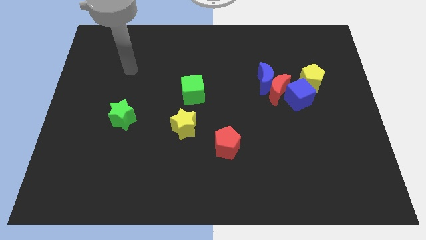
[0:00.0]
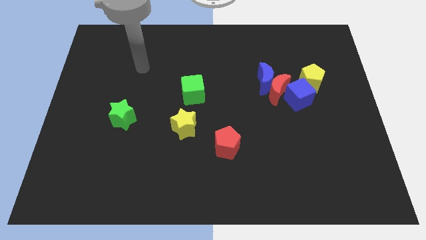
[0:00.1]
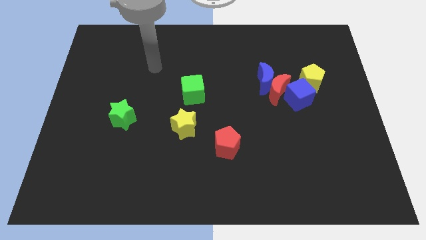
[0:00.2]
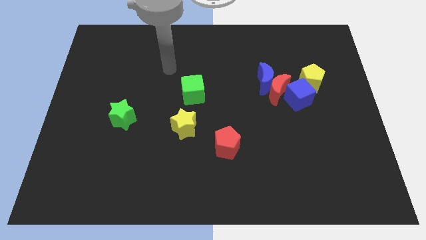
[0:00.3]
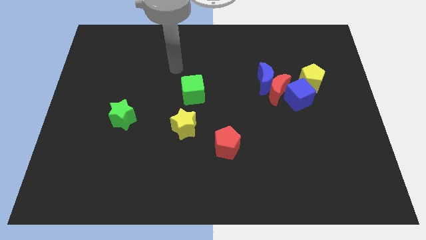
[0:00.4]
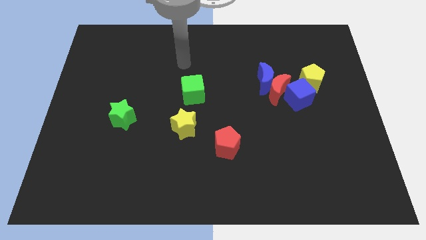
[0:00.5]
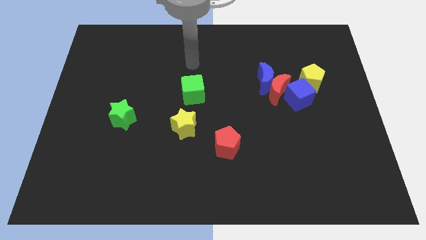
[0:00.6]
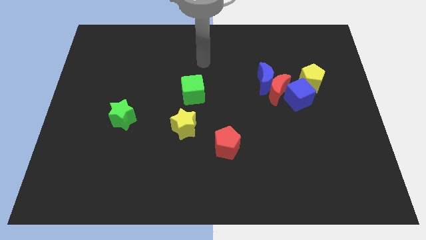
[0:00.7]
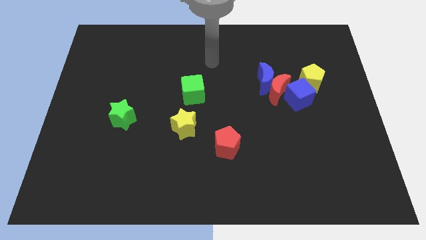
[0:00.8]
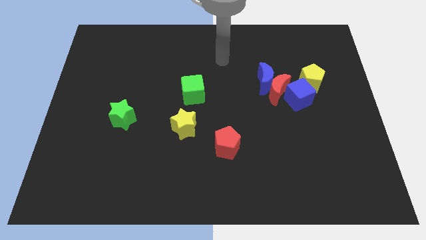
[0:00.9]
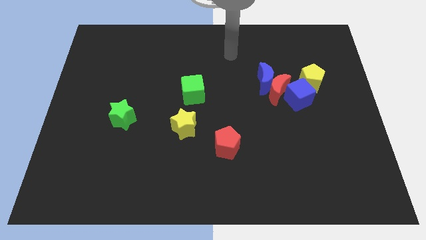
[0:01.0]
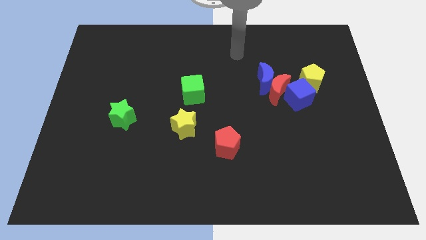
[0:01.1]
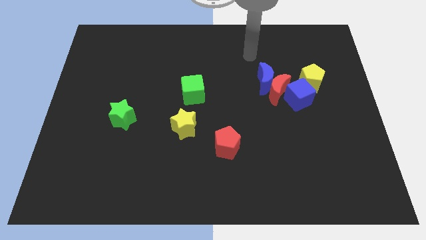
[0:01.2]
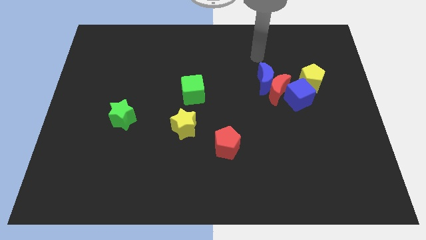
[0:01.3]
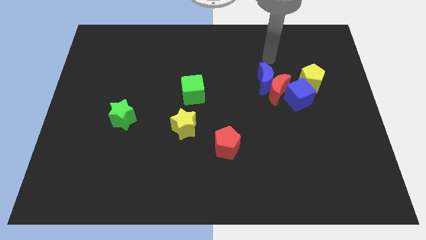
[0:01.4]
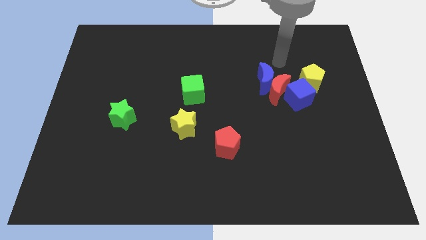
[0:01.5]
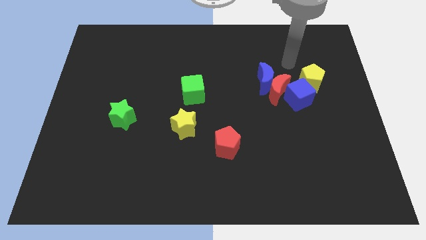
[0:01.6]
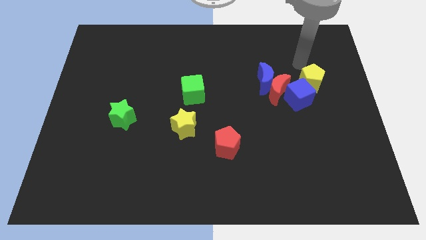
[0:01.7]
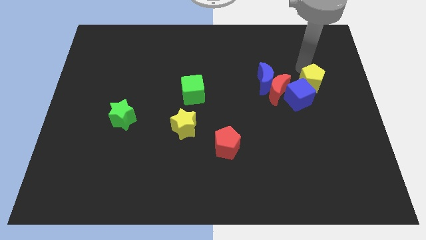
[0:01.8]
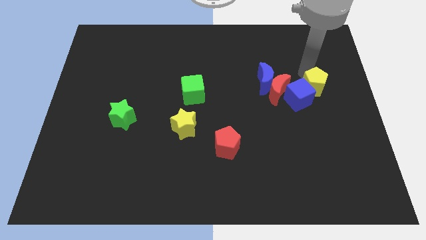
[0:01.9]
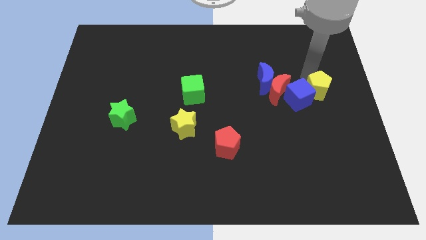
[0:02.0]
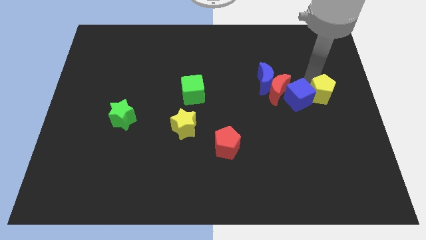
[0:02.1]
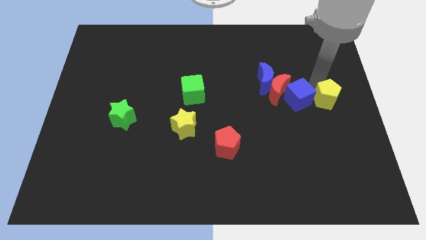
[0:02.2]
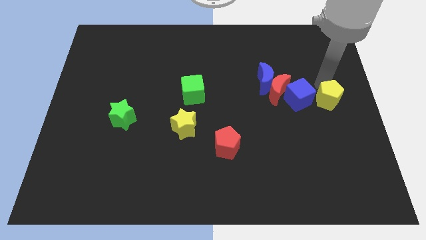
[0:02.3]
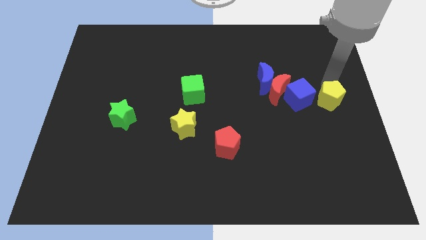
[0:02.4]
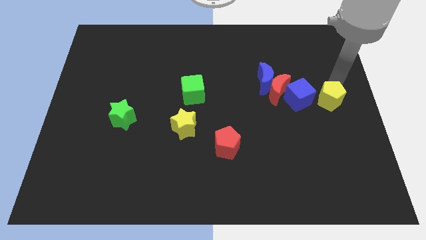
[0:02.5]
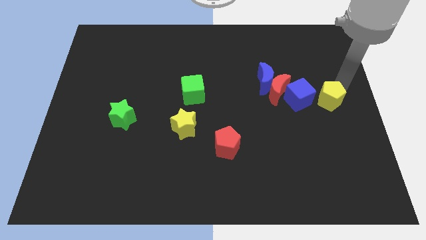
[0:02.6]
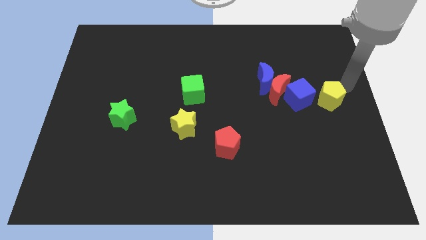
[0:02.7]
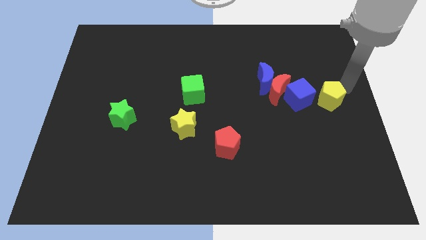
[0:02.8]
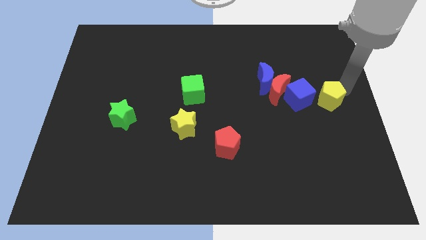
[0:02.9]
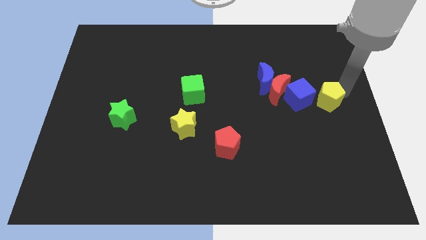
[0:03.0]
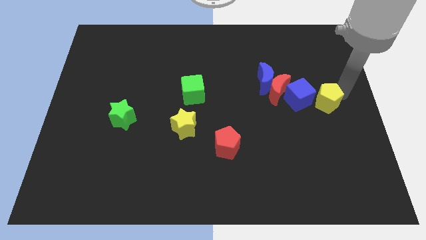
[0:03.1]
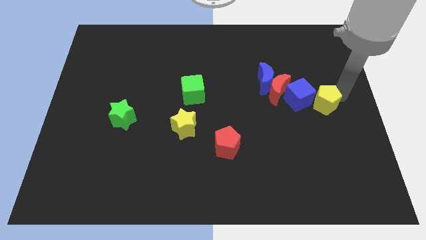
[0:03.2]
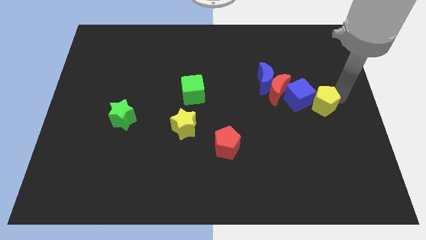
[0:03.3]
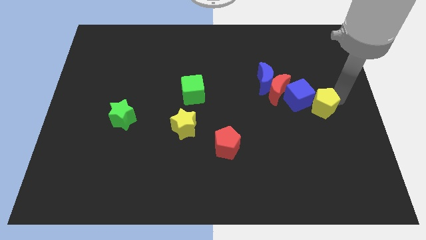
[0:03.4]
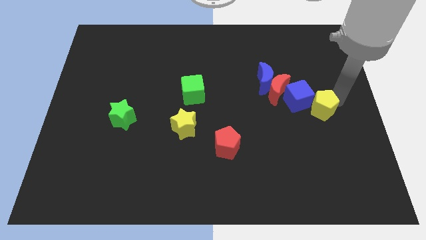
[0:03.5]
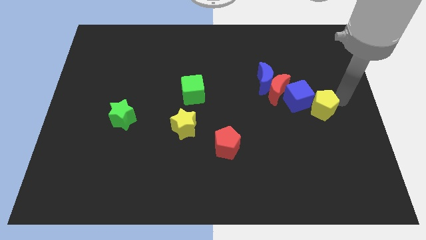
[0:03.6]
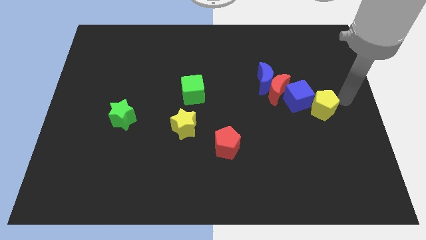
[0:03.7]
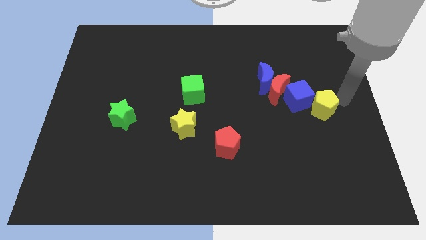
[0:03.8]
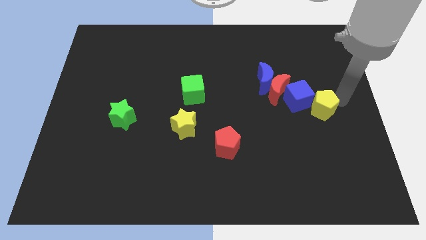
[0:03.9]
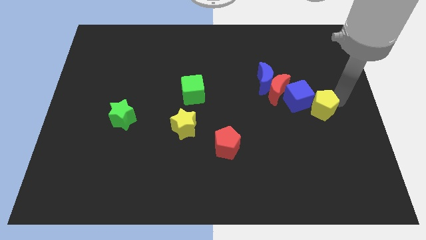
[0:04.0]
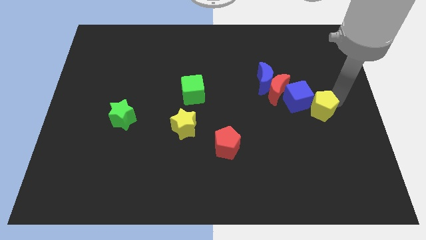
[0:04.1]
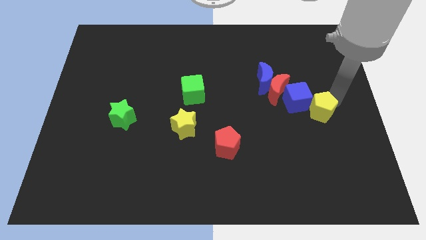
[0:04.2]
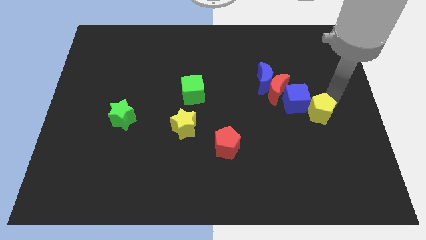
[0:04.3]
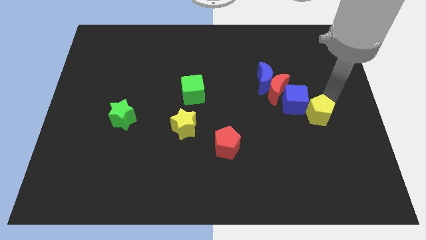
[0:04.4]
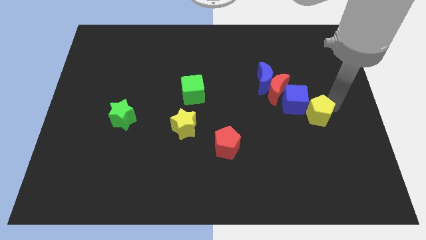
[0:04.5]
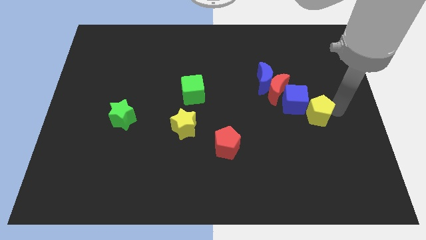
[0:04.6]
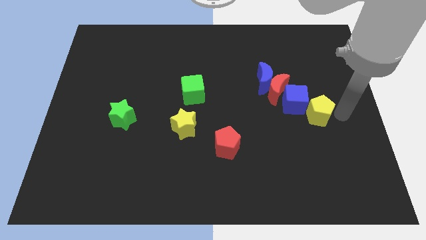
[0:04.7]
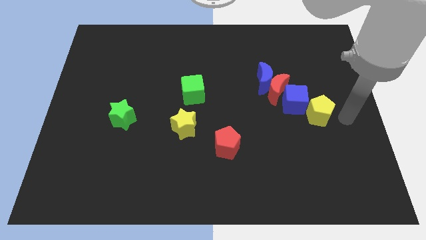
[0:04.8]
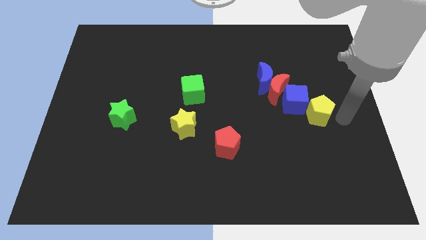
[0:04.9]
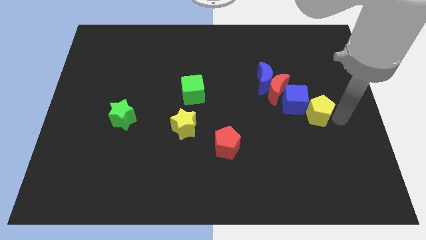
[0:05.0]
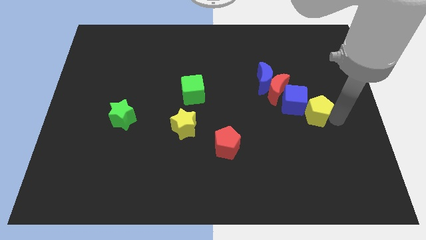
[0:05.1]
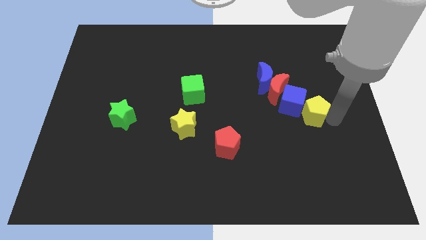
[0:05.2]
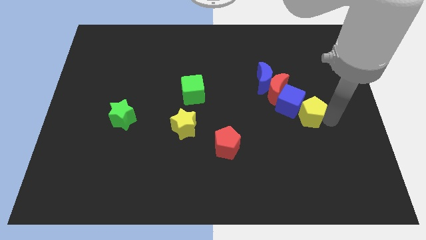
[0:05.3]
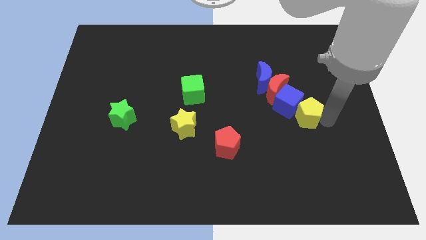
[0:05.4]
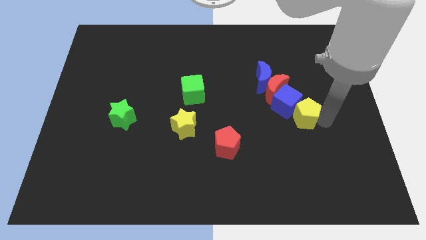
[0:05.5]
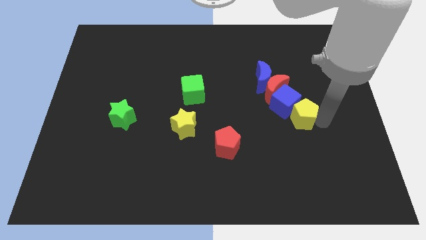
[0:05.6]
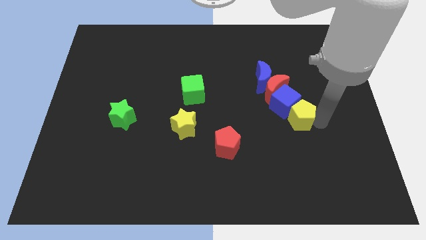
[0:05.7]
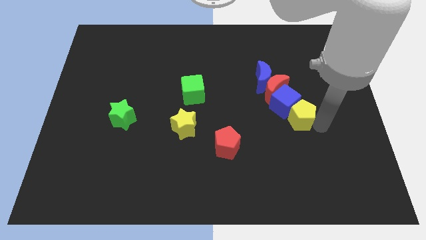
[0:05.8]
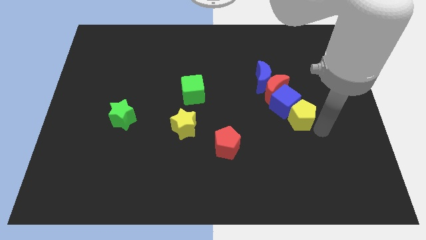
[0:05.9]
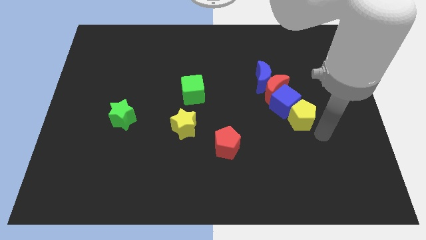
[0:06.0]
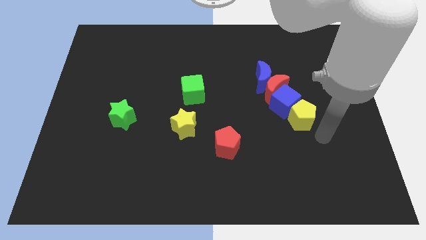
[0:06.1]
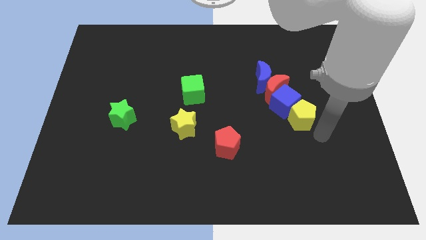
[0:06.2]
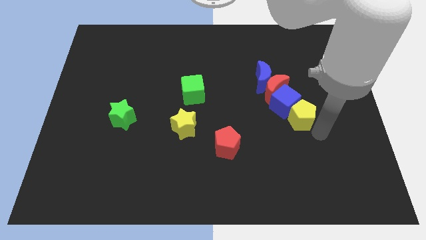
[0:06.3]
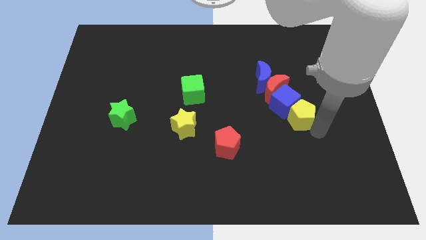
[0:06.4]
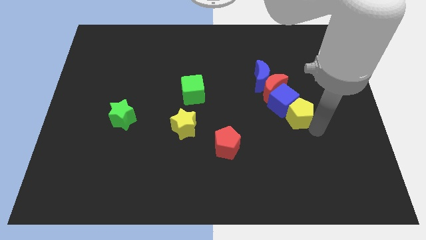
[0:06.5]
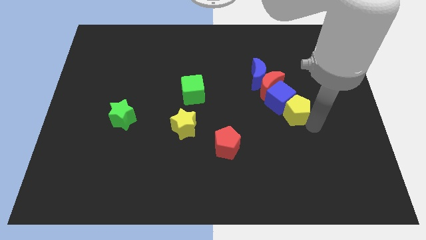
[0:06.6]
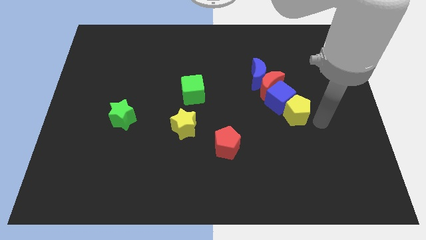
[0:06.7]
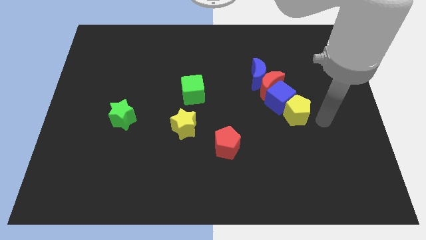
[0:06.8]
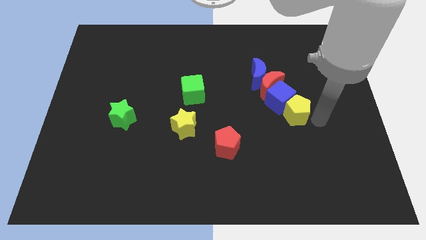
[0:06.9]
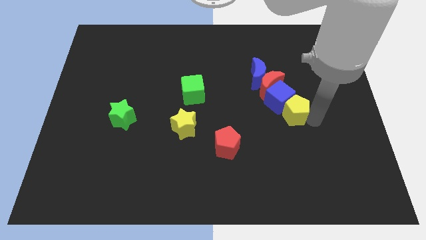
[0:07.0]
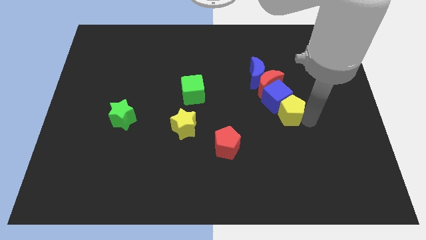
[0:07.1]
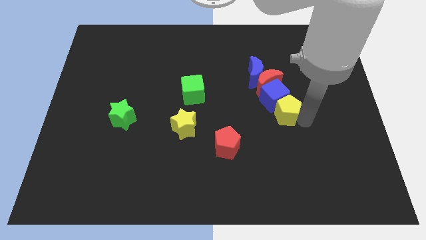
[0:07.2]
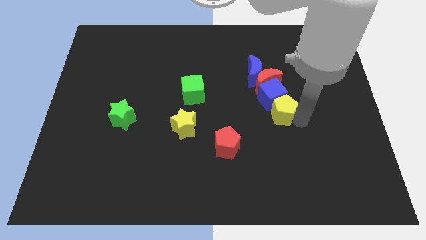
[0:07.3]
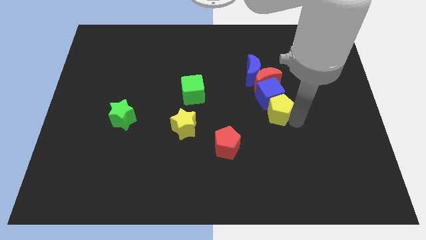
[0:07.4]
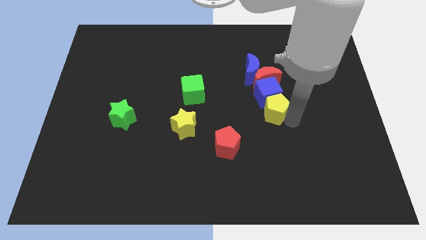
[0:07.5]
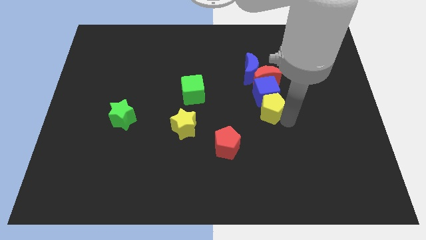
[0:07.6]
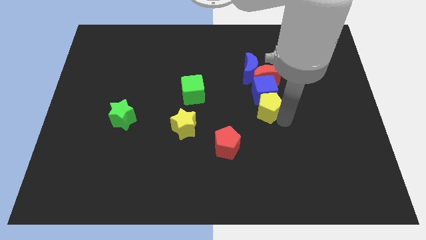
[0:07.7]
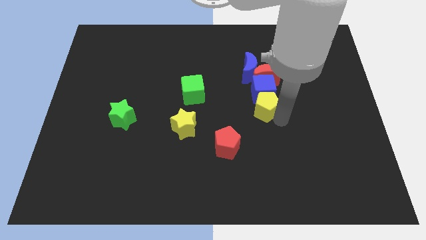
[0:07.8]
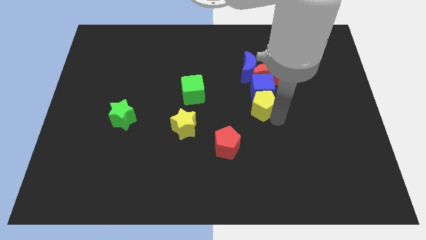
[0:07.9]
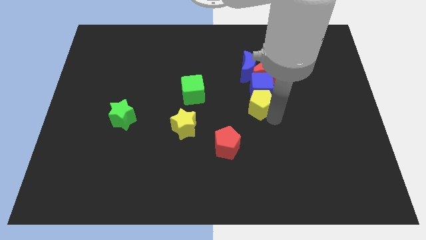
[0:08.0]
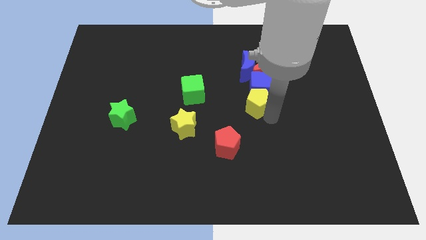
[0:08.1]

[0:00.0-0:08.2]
move the yellow pentagon to the bottom left side of the red moon
